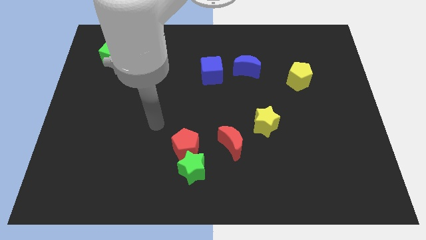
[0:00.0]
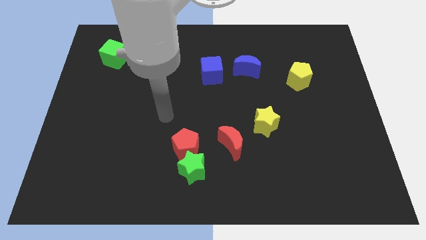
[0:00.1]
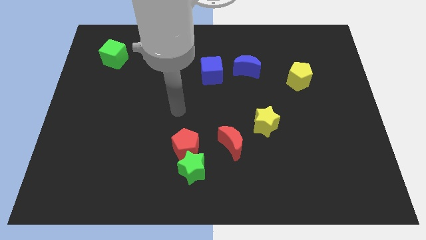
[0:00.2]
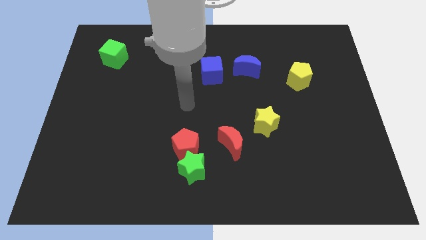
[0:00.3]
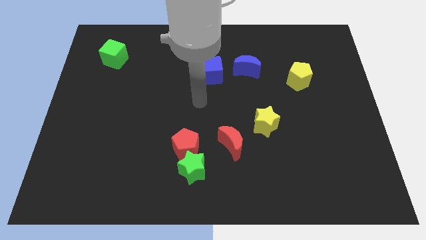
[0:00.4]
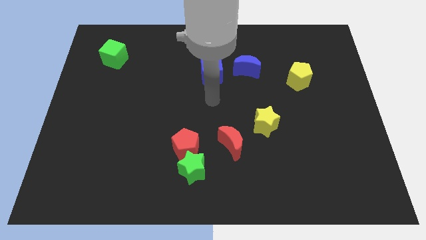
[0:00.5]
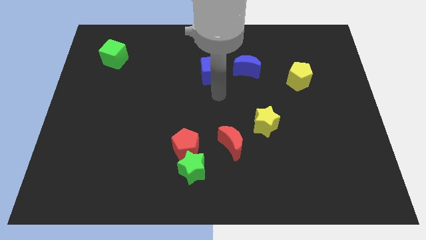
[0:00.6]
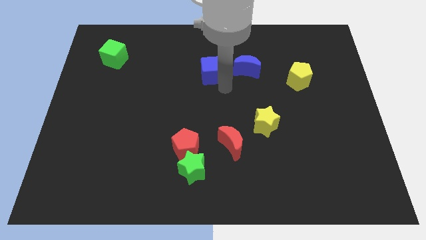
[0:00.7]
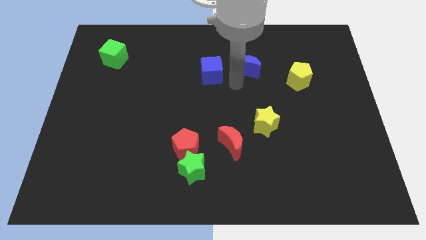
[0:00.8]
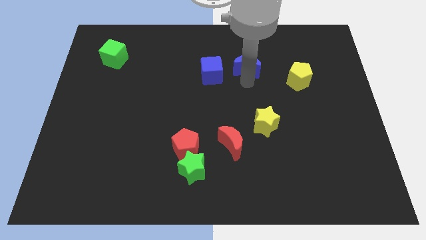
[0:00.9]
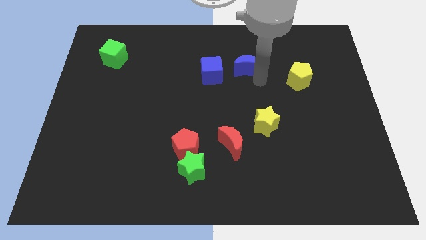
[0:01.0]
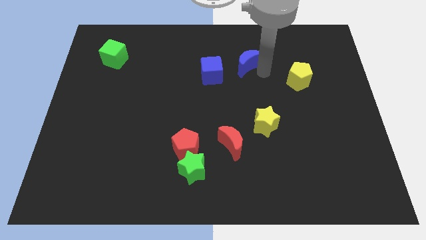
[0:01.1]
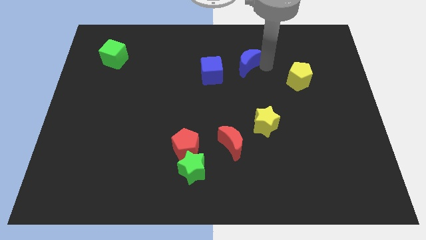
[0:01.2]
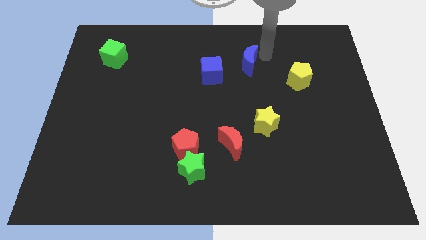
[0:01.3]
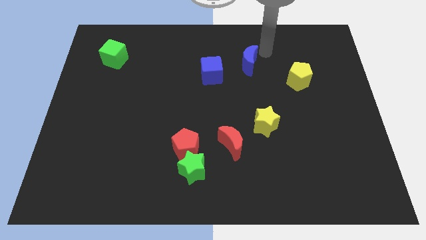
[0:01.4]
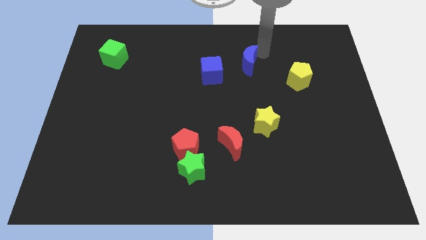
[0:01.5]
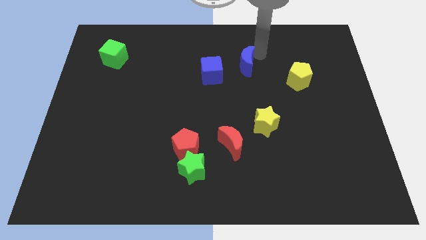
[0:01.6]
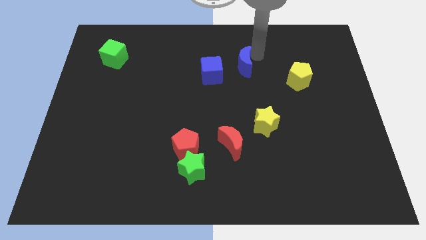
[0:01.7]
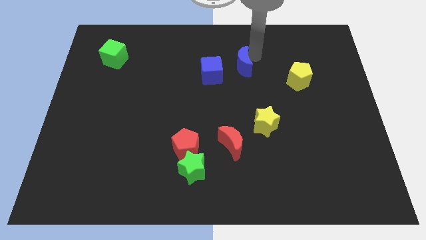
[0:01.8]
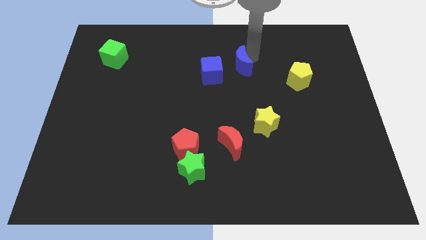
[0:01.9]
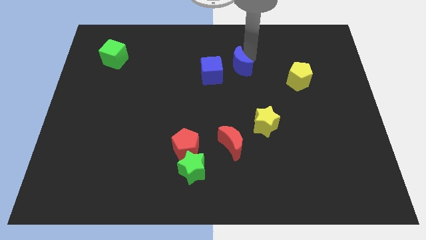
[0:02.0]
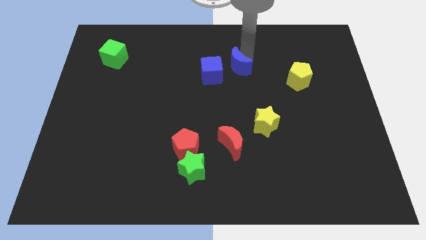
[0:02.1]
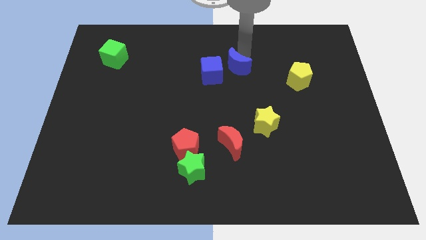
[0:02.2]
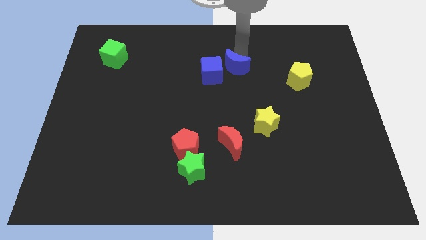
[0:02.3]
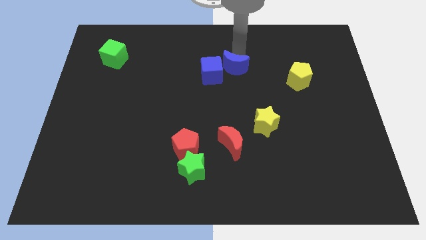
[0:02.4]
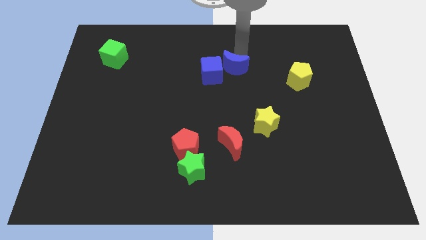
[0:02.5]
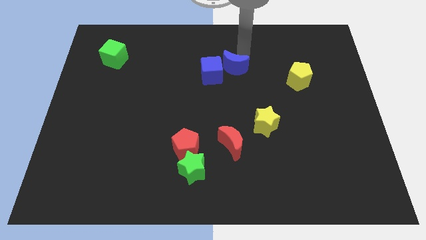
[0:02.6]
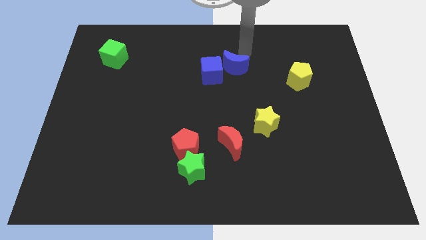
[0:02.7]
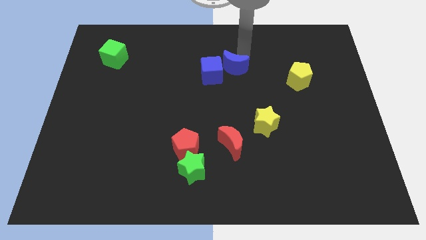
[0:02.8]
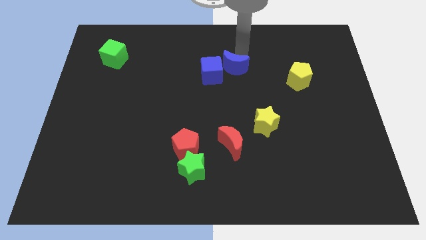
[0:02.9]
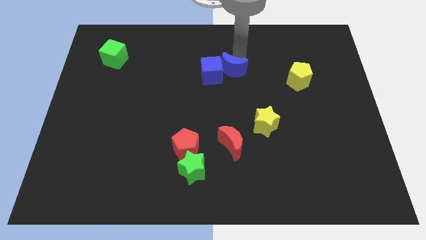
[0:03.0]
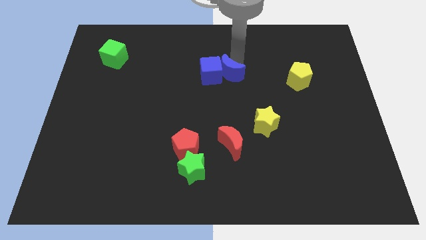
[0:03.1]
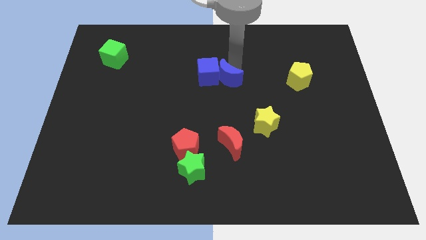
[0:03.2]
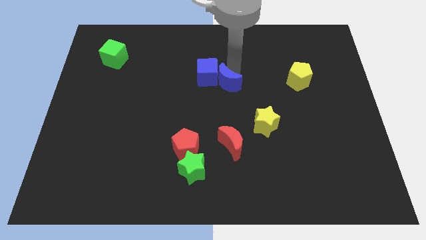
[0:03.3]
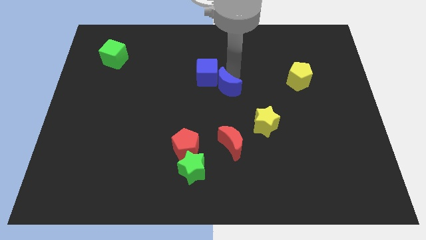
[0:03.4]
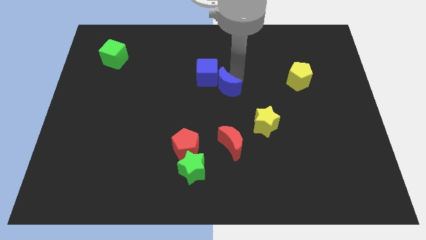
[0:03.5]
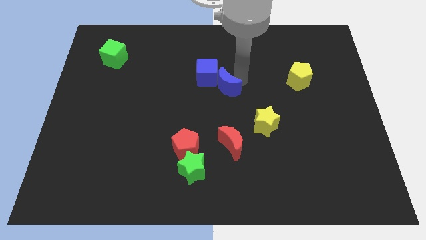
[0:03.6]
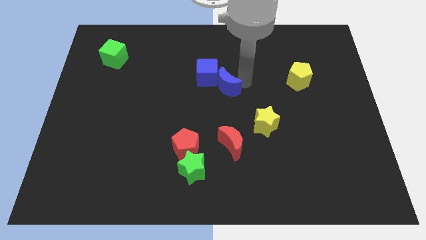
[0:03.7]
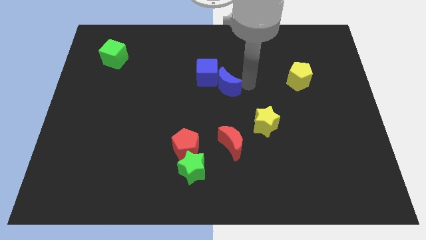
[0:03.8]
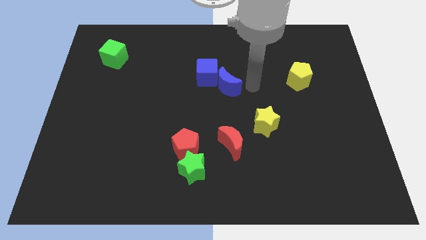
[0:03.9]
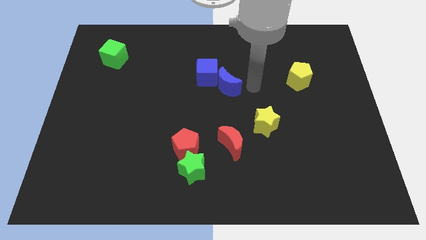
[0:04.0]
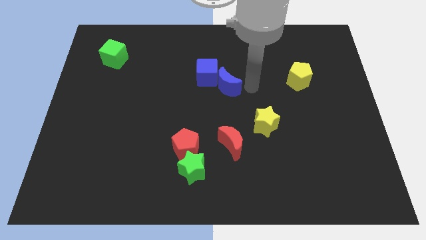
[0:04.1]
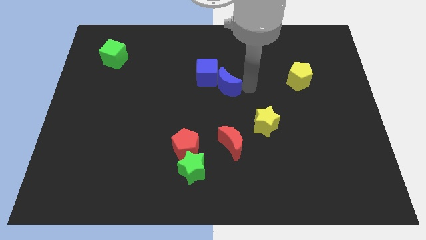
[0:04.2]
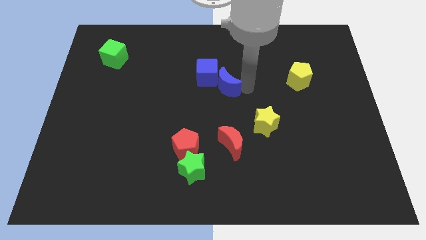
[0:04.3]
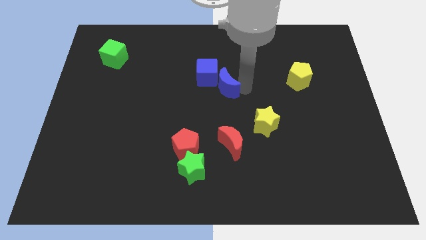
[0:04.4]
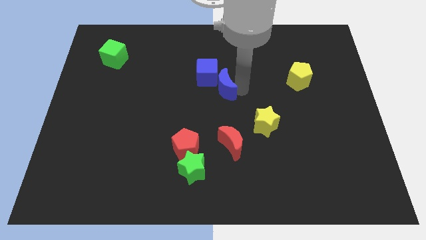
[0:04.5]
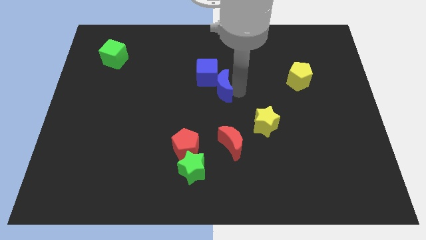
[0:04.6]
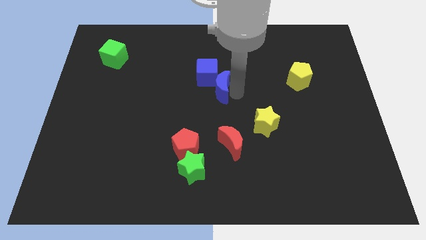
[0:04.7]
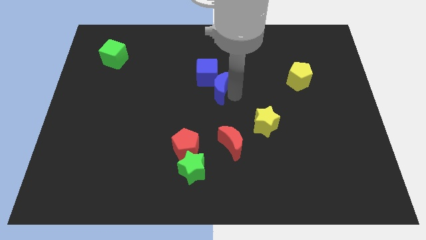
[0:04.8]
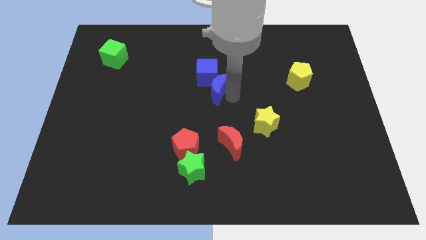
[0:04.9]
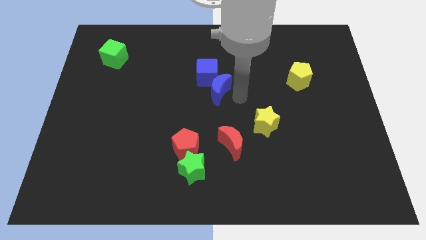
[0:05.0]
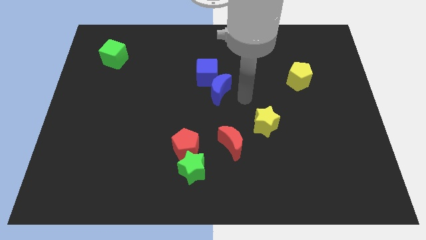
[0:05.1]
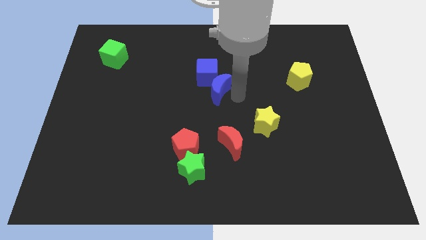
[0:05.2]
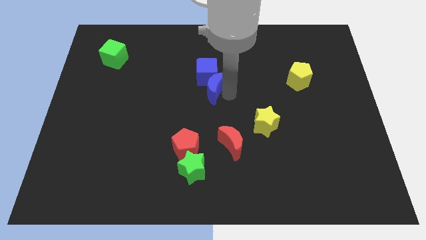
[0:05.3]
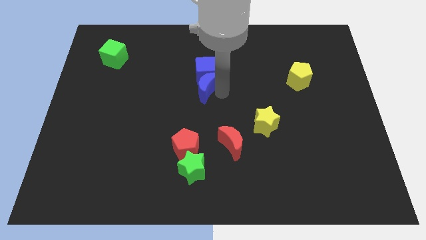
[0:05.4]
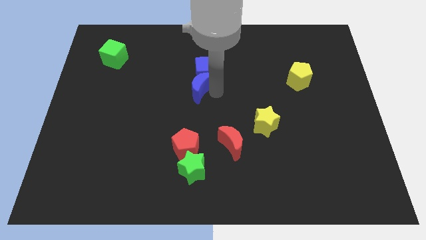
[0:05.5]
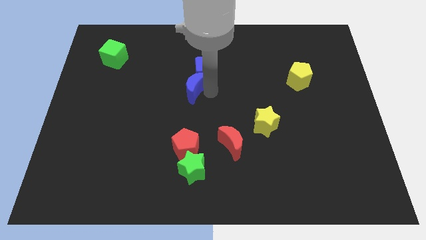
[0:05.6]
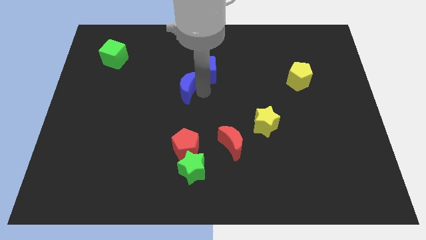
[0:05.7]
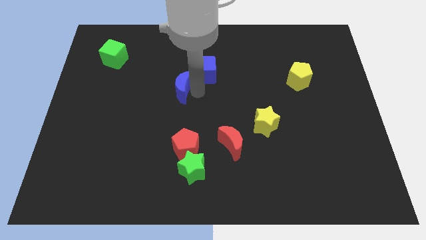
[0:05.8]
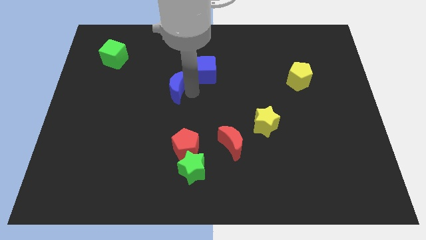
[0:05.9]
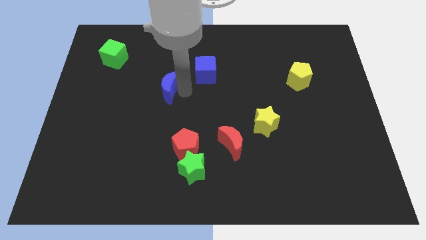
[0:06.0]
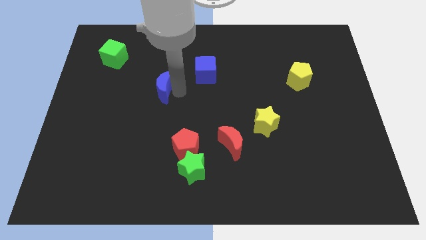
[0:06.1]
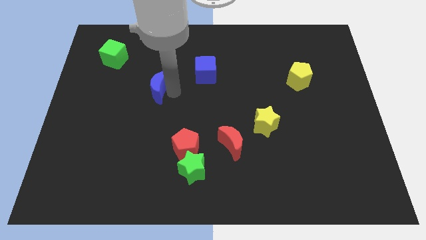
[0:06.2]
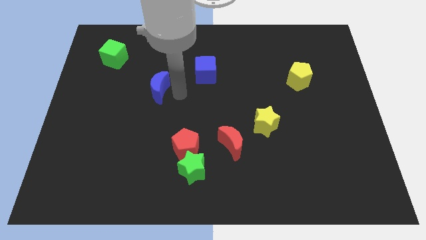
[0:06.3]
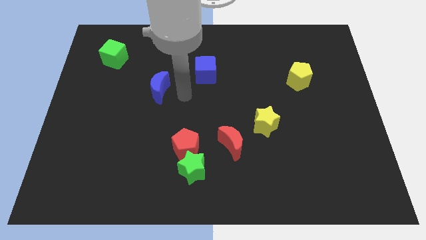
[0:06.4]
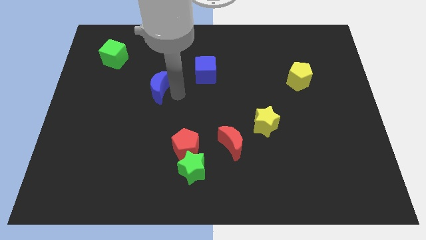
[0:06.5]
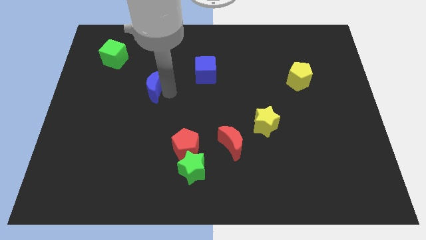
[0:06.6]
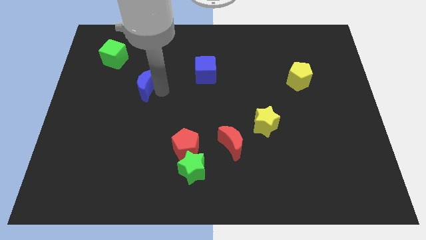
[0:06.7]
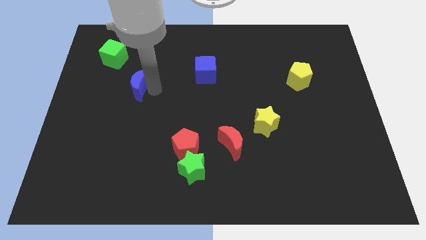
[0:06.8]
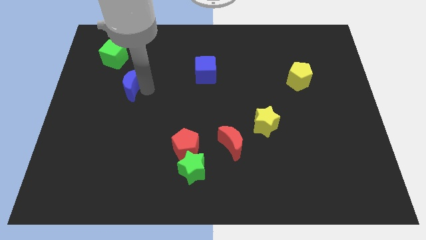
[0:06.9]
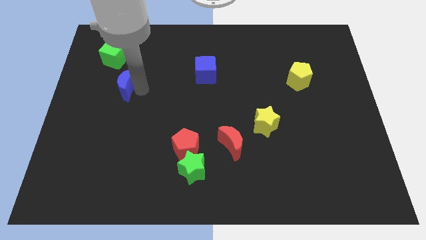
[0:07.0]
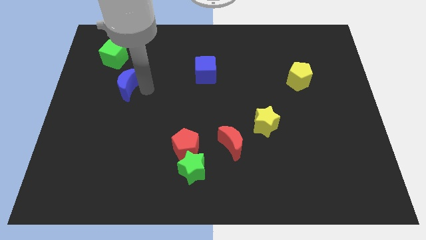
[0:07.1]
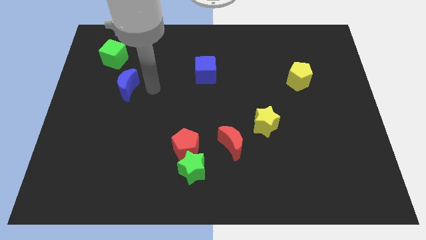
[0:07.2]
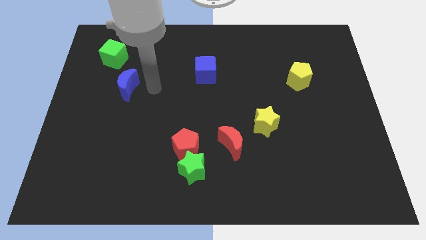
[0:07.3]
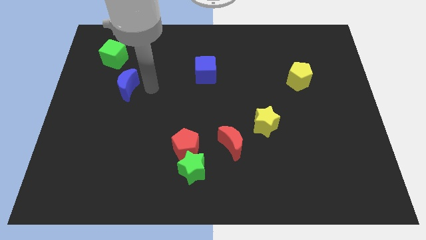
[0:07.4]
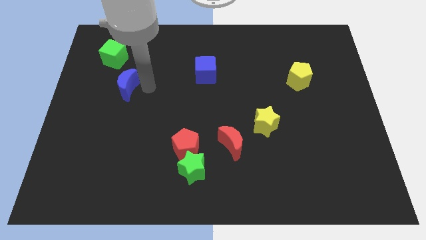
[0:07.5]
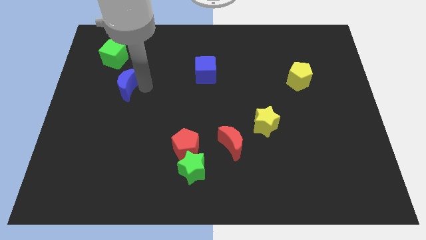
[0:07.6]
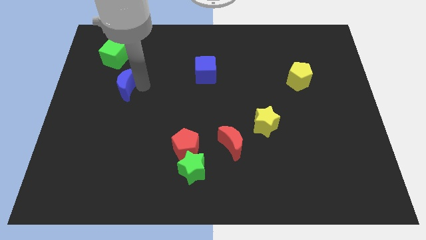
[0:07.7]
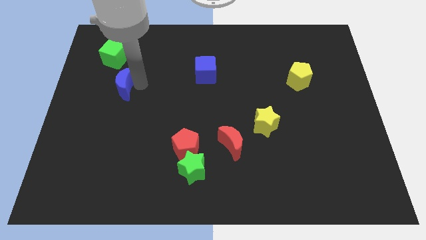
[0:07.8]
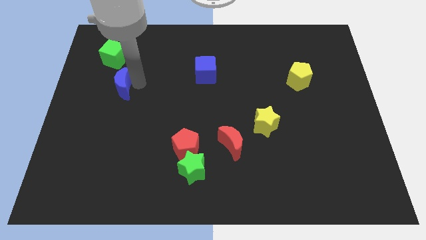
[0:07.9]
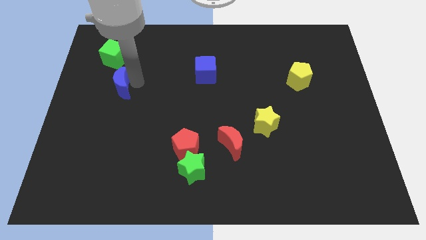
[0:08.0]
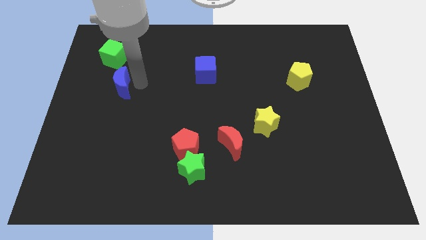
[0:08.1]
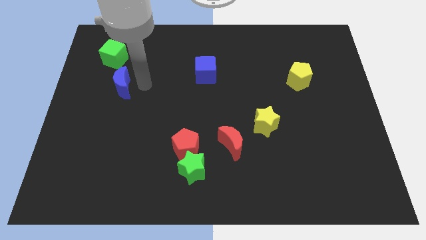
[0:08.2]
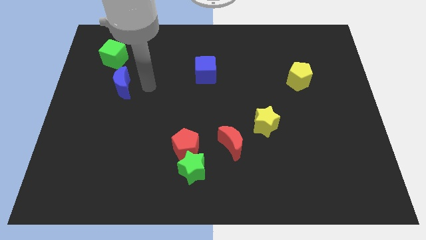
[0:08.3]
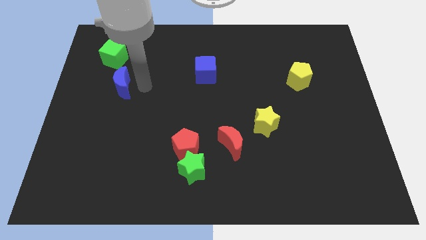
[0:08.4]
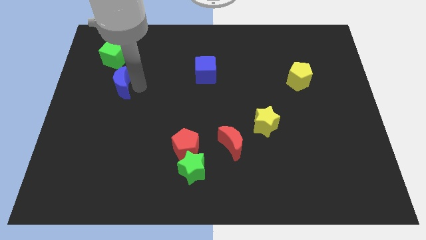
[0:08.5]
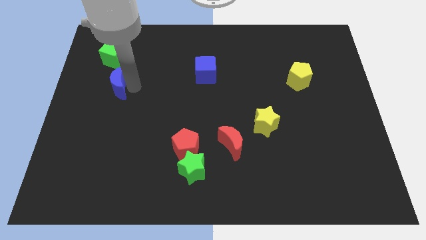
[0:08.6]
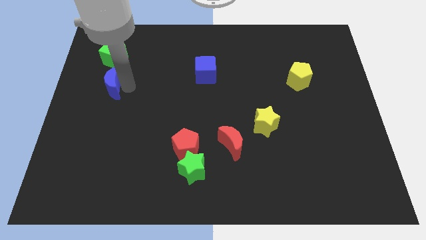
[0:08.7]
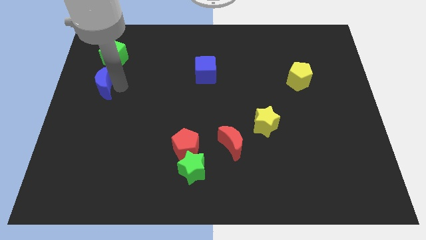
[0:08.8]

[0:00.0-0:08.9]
put the blue moon to the left side of the board
